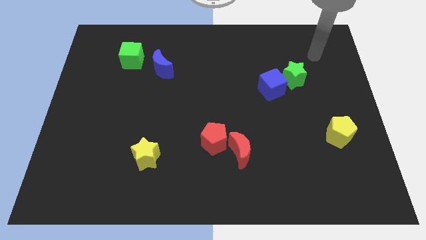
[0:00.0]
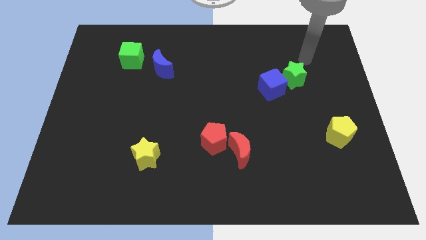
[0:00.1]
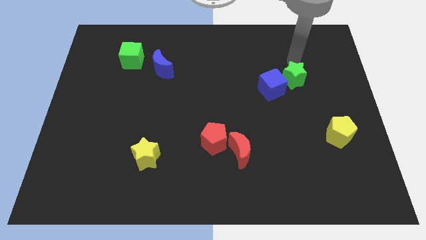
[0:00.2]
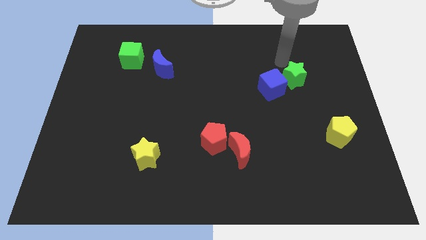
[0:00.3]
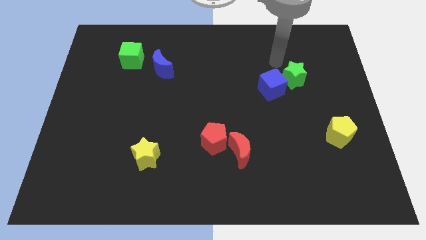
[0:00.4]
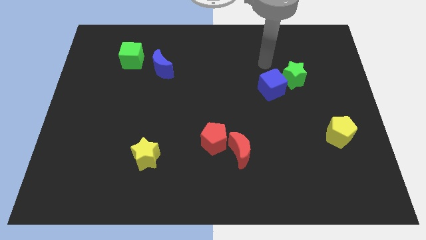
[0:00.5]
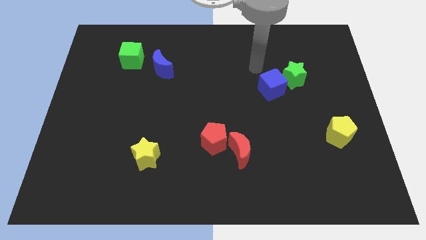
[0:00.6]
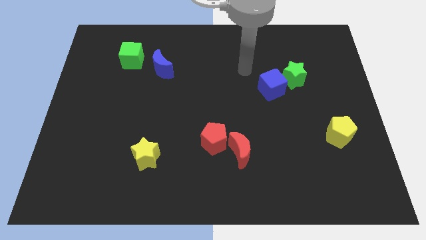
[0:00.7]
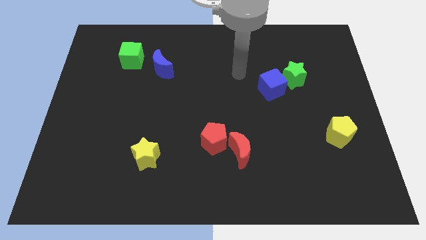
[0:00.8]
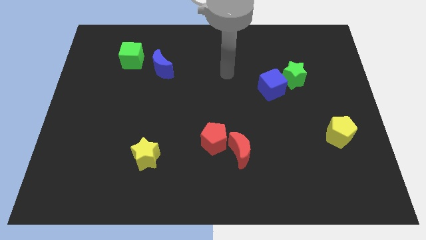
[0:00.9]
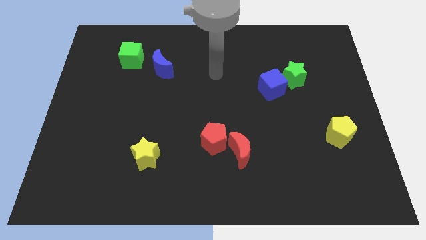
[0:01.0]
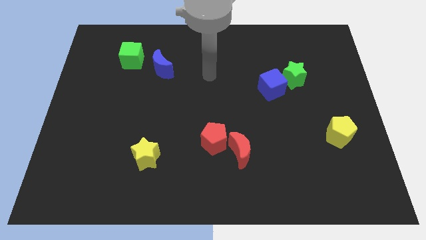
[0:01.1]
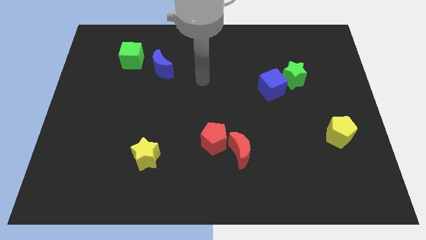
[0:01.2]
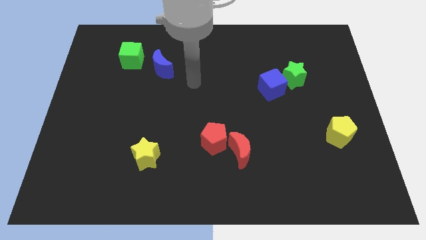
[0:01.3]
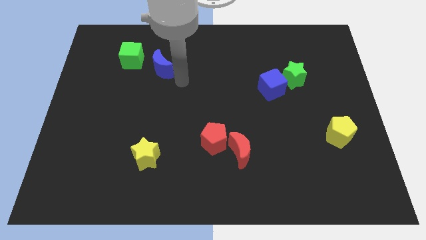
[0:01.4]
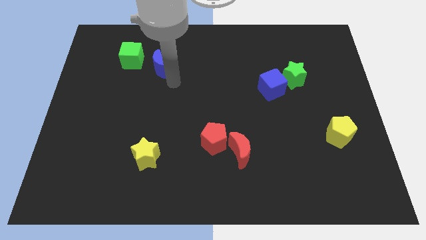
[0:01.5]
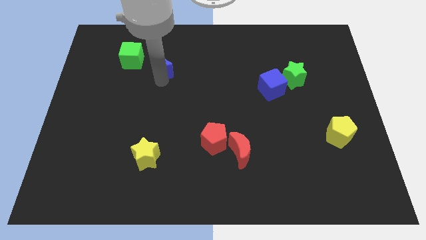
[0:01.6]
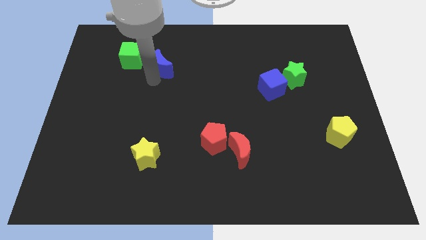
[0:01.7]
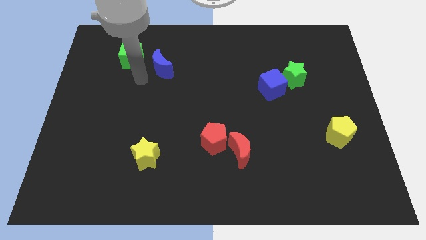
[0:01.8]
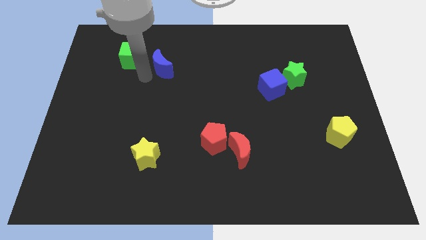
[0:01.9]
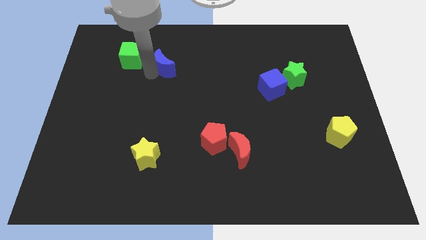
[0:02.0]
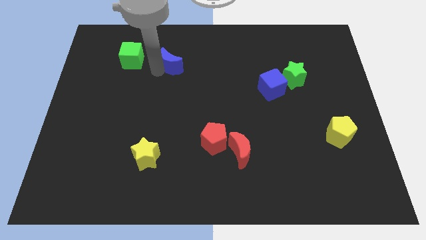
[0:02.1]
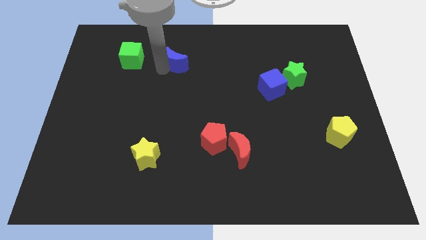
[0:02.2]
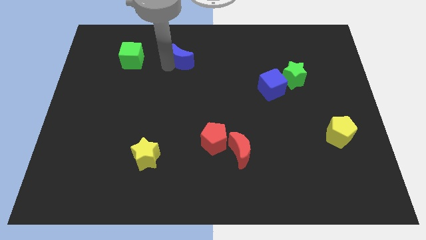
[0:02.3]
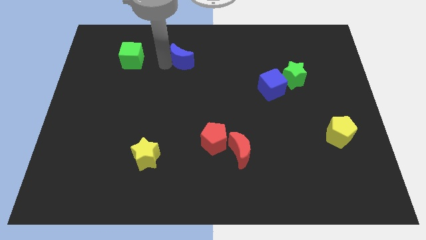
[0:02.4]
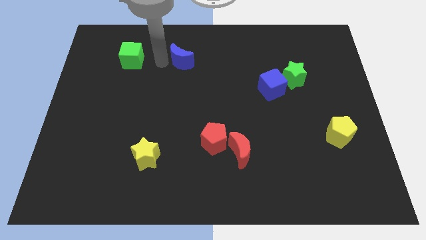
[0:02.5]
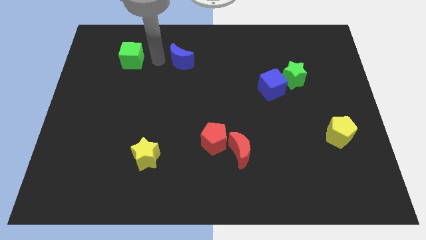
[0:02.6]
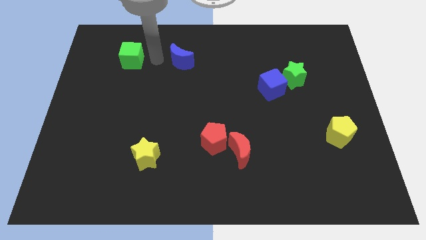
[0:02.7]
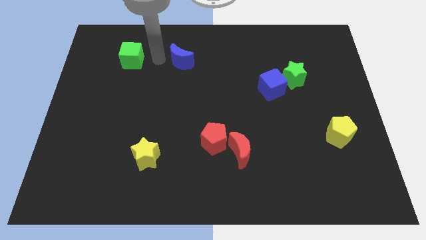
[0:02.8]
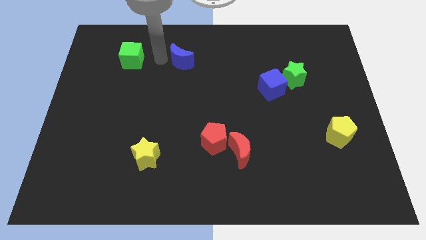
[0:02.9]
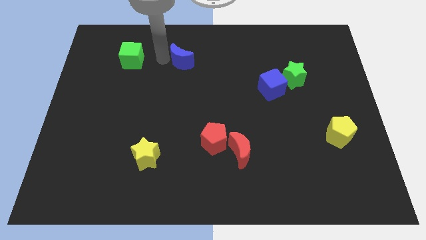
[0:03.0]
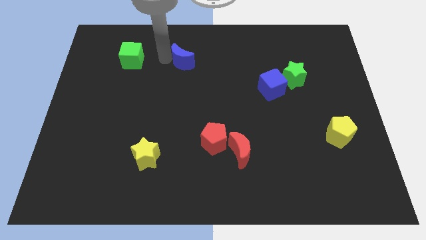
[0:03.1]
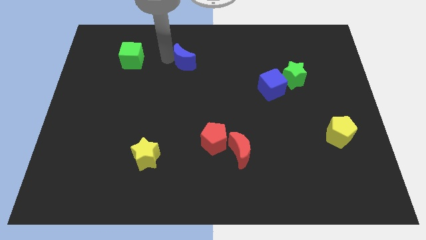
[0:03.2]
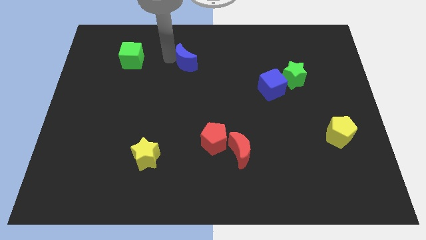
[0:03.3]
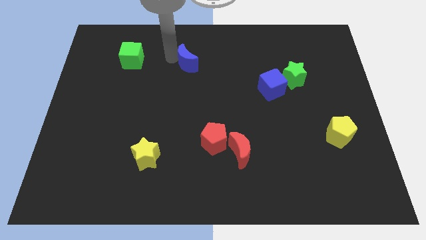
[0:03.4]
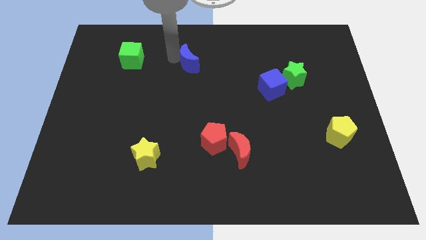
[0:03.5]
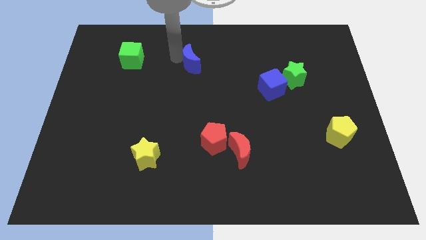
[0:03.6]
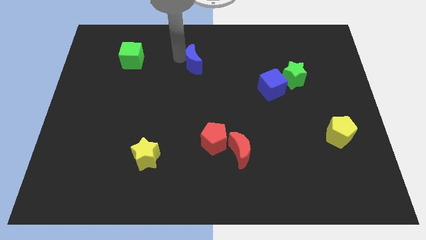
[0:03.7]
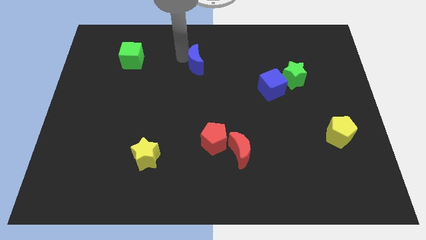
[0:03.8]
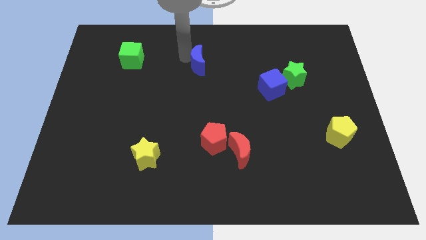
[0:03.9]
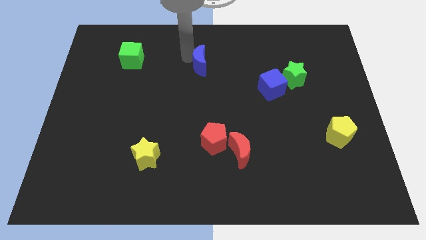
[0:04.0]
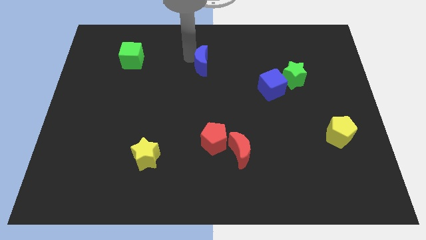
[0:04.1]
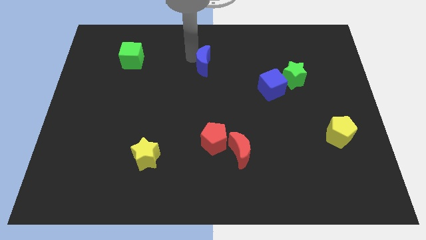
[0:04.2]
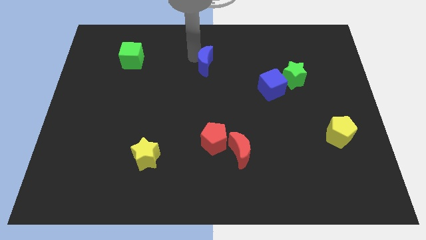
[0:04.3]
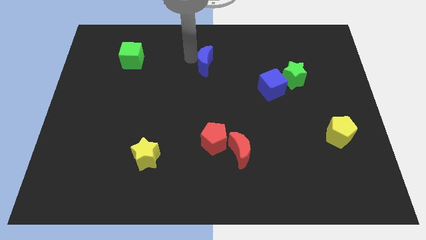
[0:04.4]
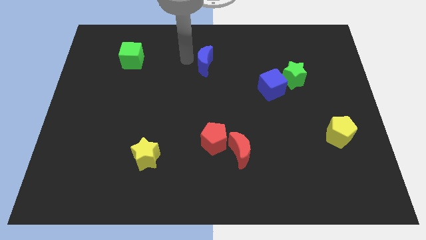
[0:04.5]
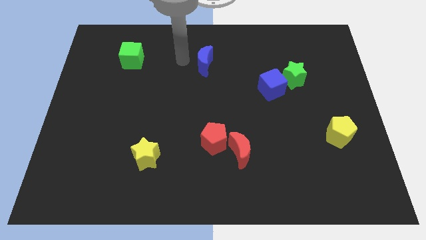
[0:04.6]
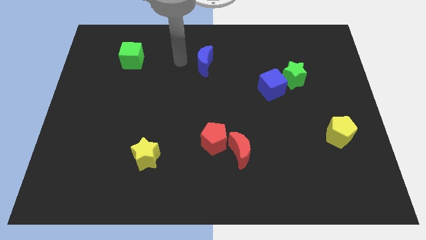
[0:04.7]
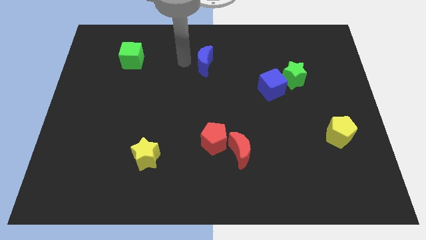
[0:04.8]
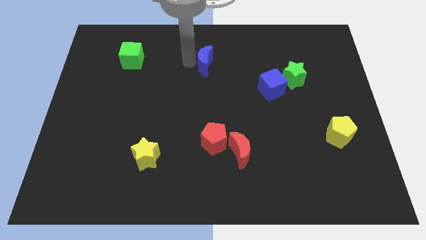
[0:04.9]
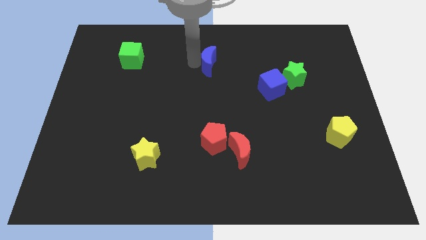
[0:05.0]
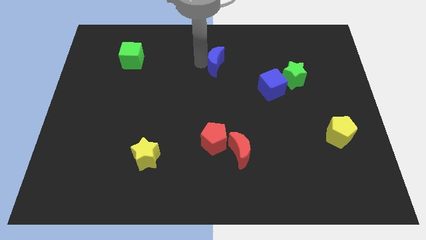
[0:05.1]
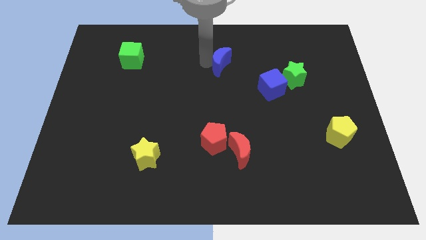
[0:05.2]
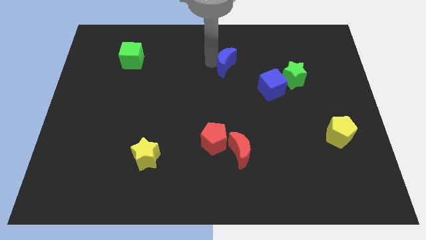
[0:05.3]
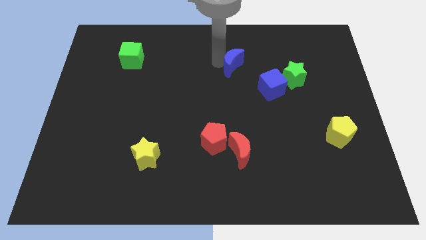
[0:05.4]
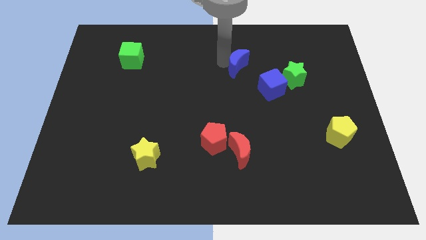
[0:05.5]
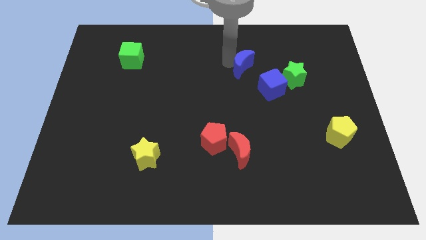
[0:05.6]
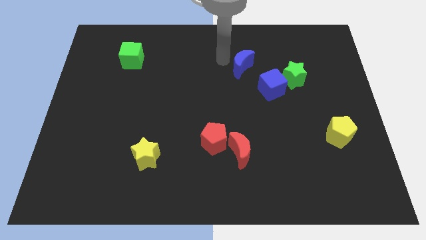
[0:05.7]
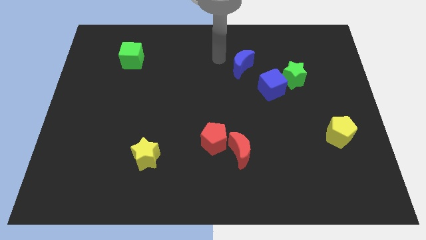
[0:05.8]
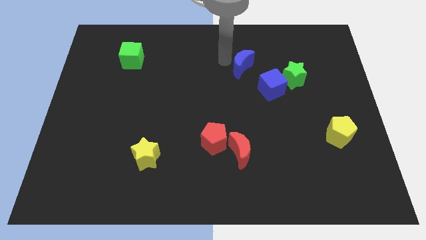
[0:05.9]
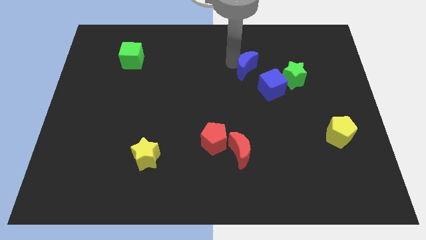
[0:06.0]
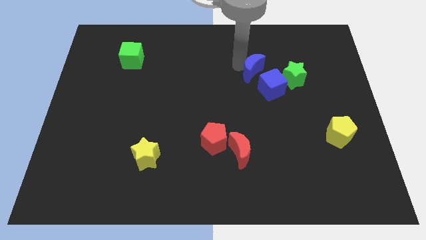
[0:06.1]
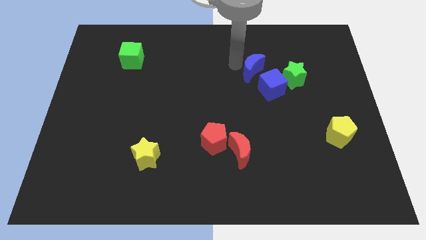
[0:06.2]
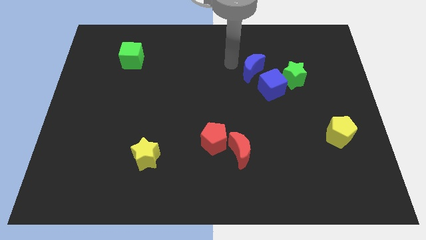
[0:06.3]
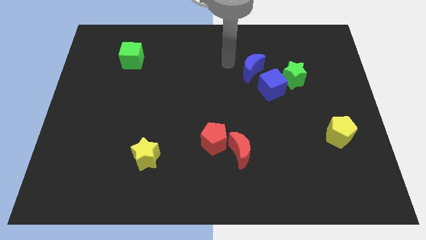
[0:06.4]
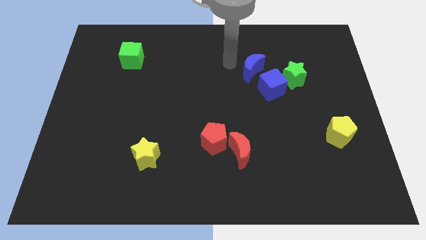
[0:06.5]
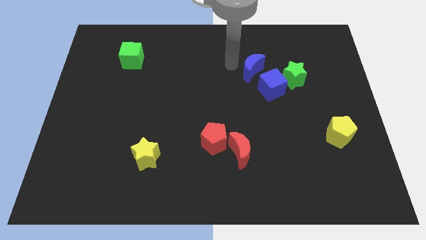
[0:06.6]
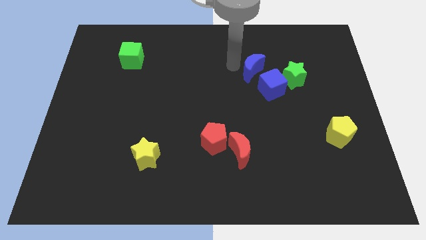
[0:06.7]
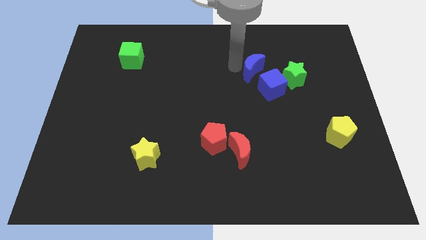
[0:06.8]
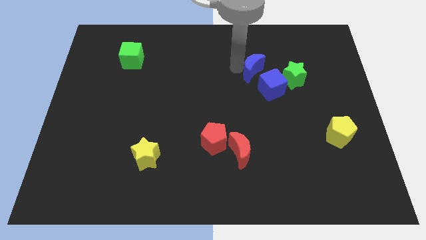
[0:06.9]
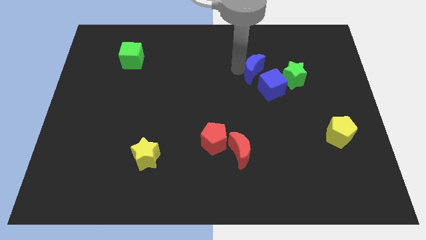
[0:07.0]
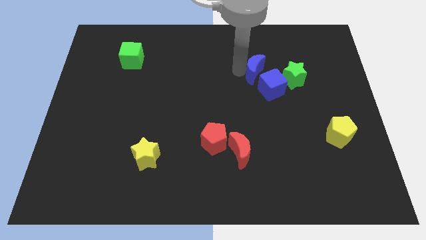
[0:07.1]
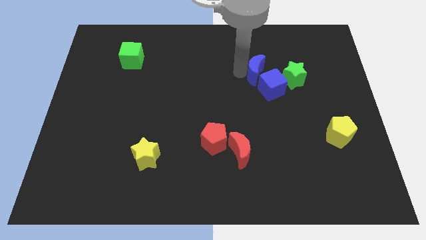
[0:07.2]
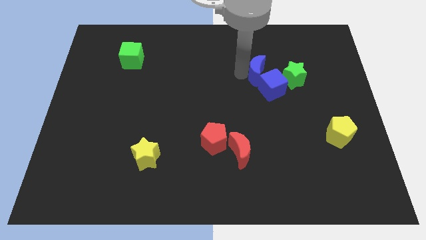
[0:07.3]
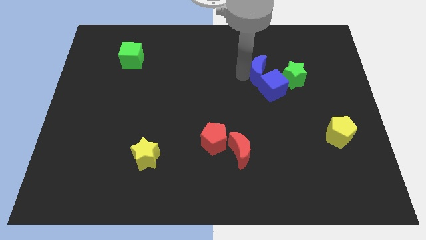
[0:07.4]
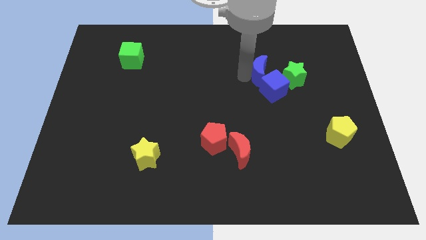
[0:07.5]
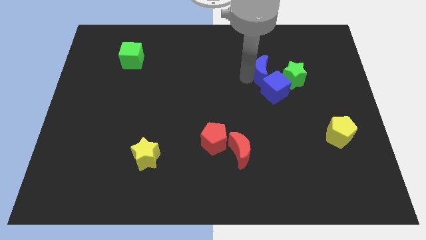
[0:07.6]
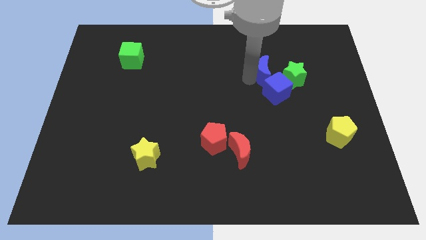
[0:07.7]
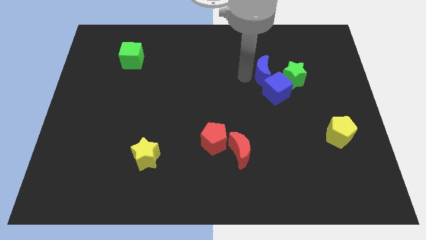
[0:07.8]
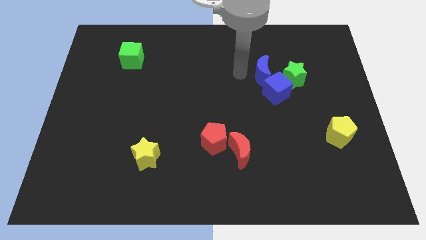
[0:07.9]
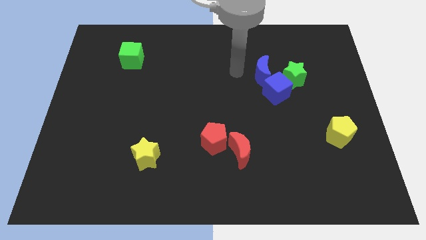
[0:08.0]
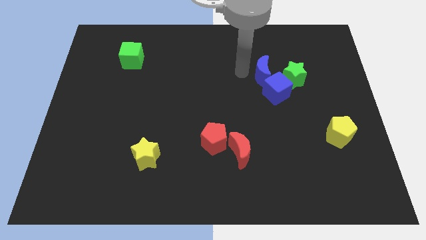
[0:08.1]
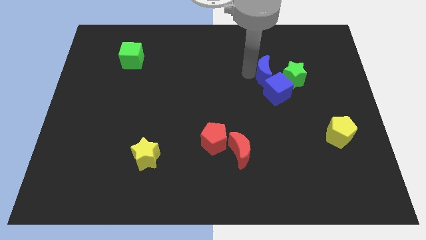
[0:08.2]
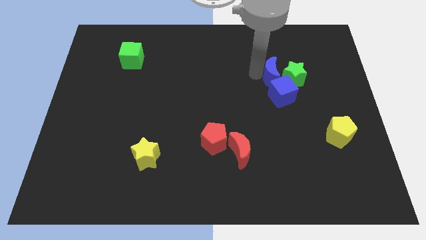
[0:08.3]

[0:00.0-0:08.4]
put the blue moon close to the green star
